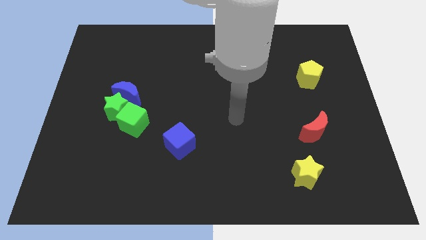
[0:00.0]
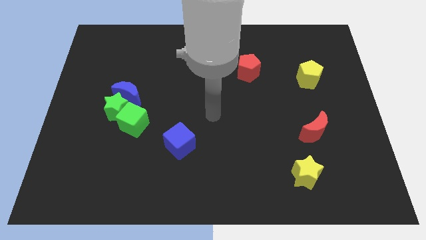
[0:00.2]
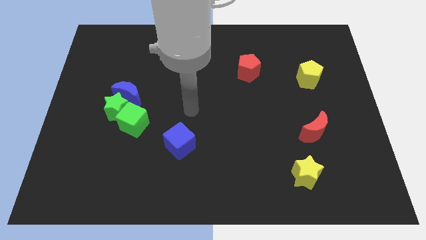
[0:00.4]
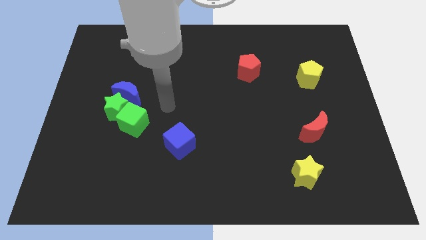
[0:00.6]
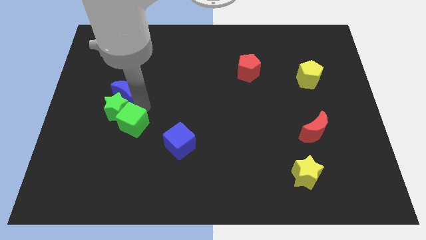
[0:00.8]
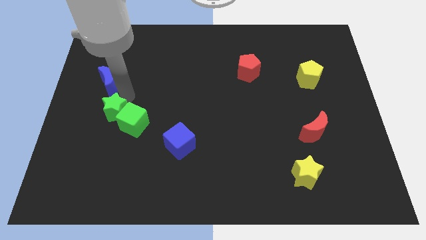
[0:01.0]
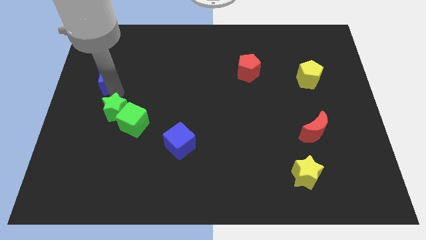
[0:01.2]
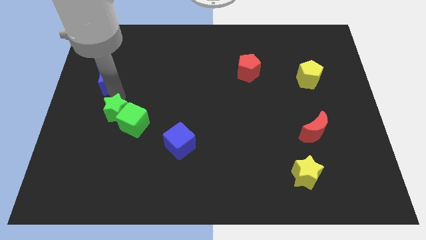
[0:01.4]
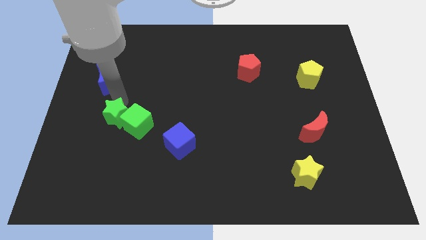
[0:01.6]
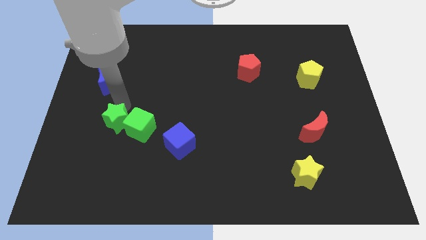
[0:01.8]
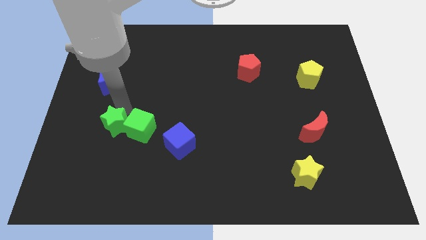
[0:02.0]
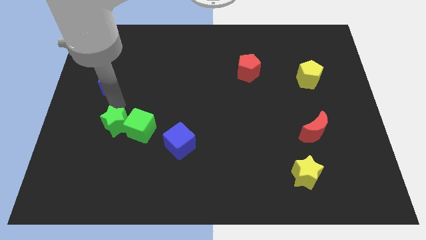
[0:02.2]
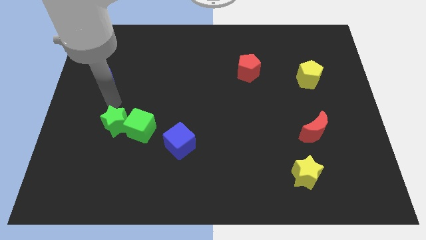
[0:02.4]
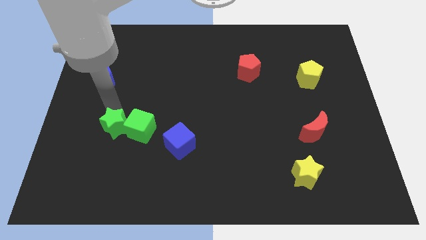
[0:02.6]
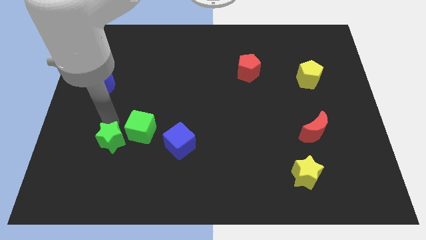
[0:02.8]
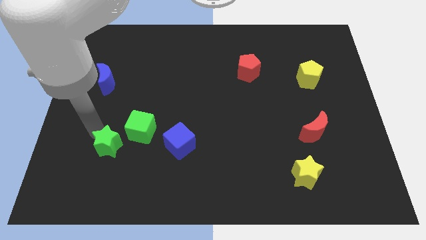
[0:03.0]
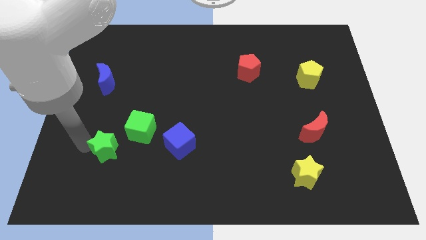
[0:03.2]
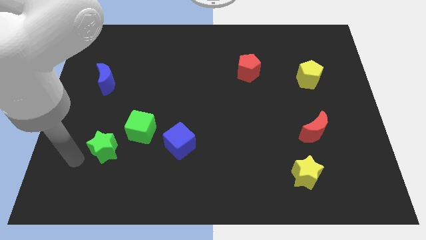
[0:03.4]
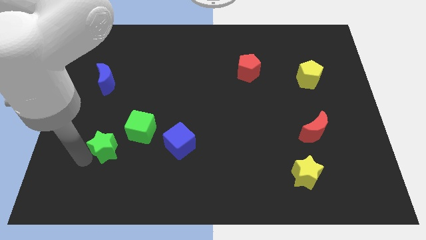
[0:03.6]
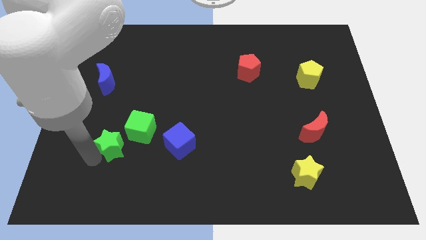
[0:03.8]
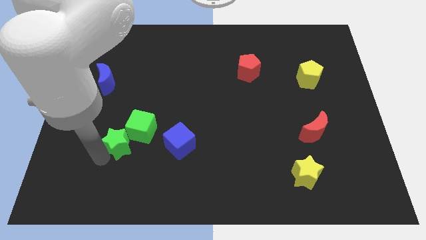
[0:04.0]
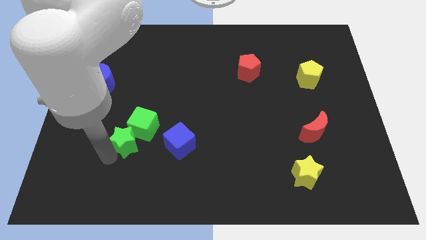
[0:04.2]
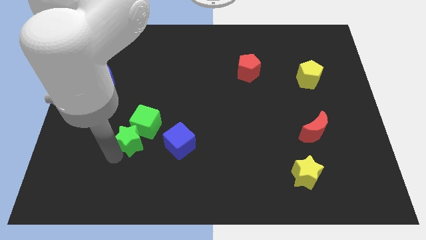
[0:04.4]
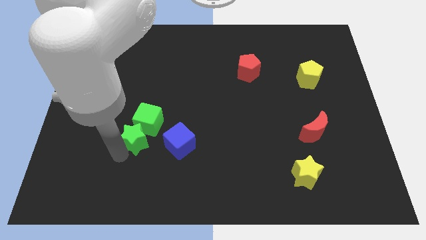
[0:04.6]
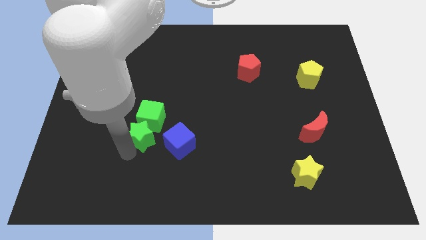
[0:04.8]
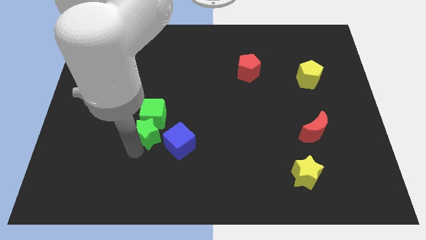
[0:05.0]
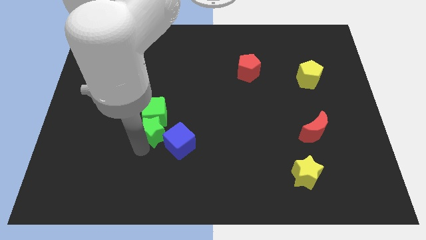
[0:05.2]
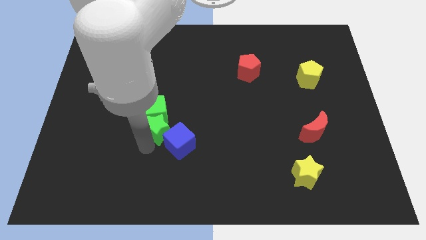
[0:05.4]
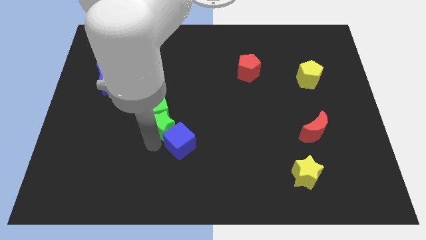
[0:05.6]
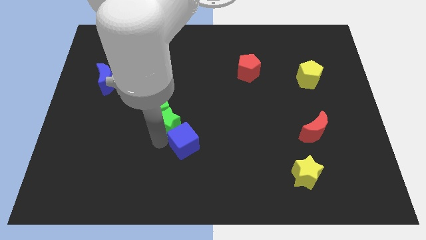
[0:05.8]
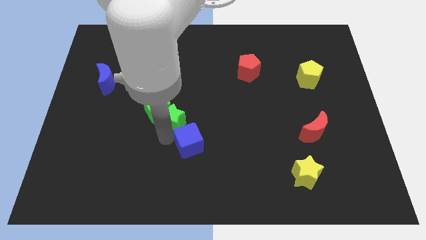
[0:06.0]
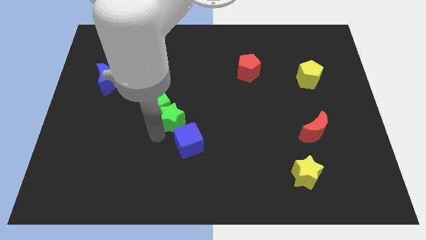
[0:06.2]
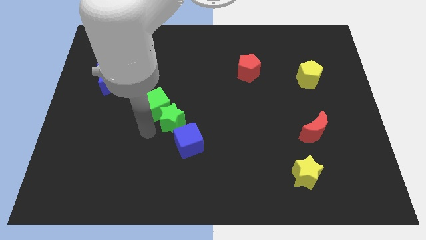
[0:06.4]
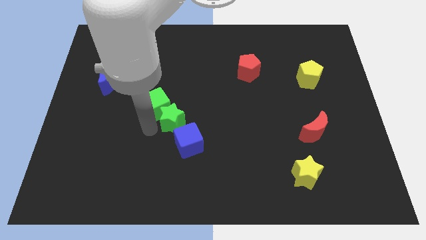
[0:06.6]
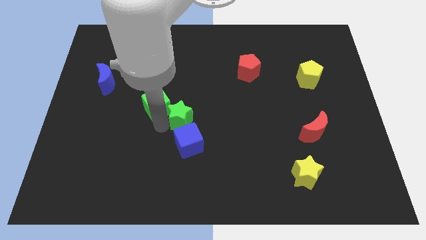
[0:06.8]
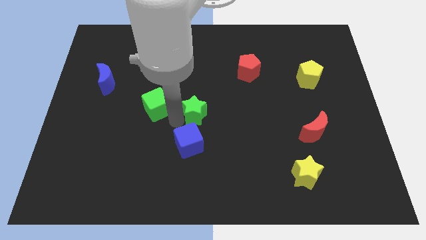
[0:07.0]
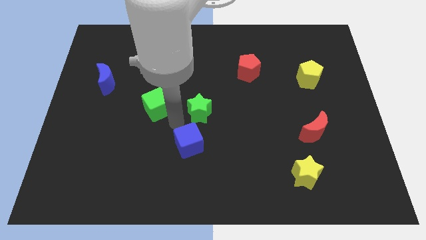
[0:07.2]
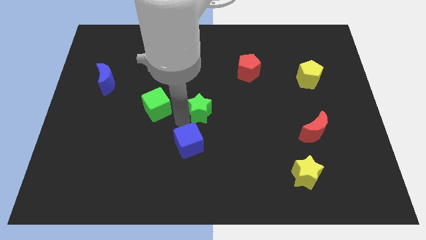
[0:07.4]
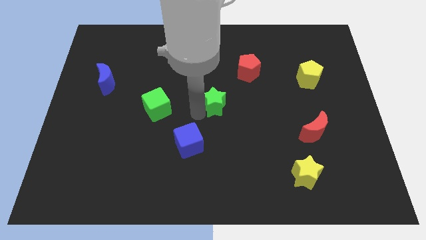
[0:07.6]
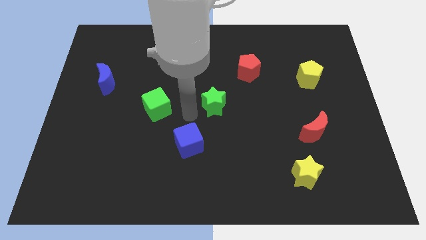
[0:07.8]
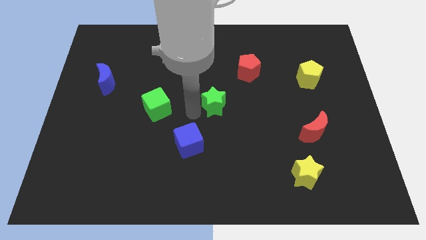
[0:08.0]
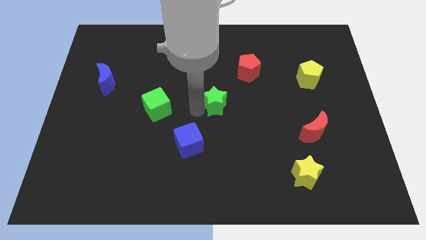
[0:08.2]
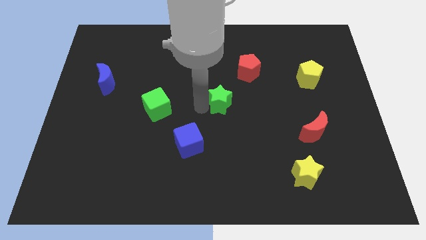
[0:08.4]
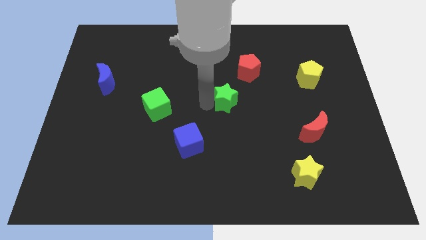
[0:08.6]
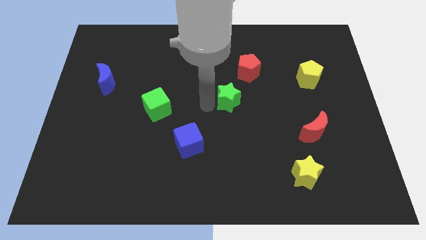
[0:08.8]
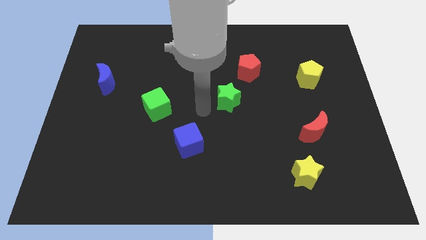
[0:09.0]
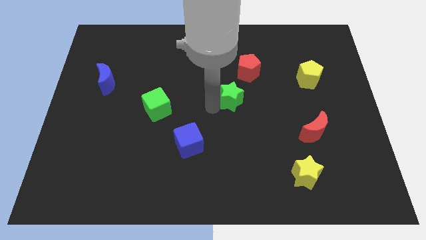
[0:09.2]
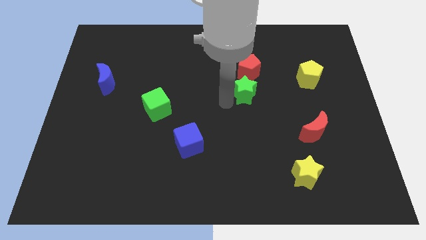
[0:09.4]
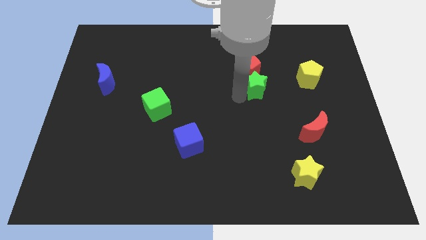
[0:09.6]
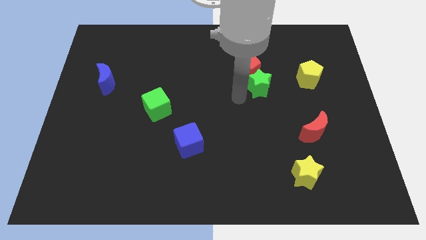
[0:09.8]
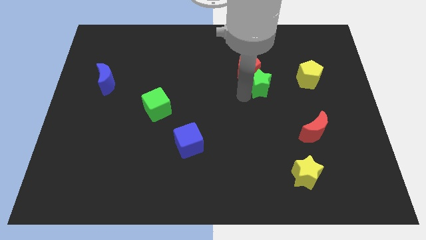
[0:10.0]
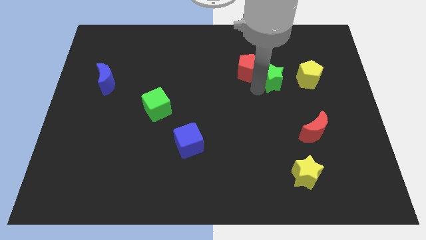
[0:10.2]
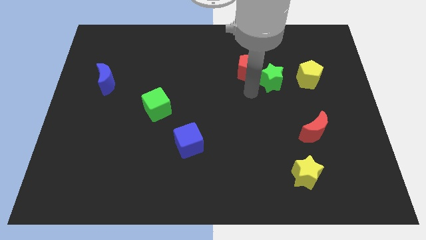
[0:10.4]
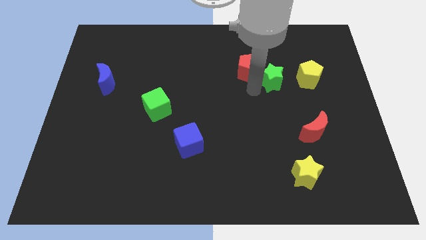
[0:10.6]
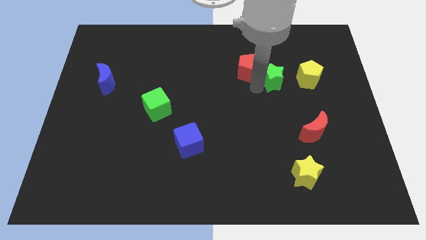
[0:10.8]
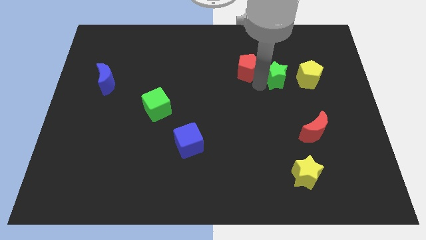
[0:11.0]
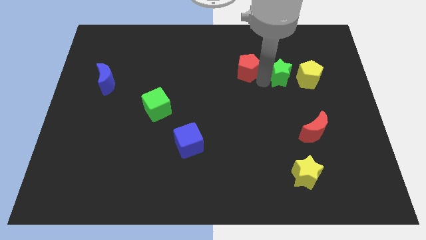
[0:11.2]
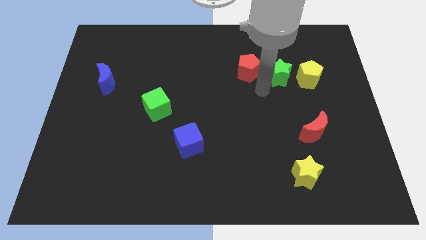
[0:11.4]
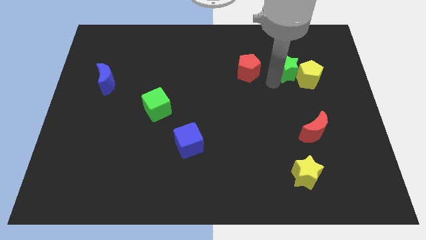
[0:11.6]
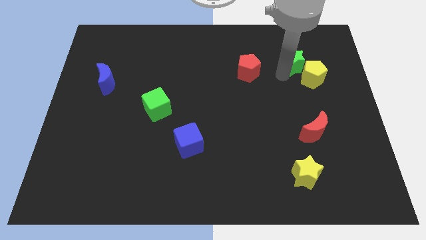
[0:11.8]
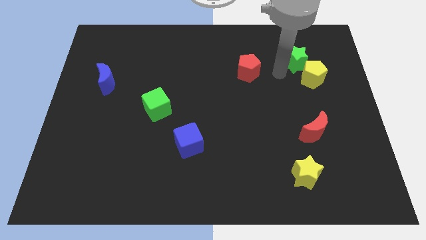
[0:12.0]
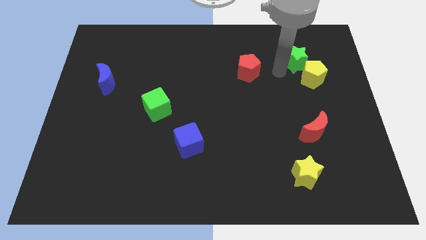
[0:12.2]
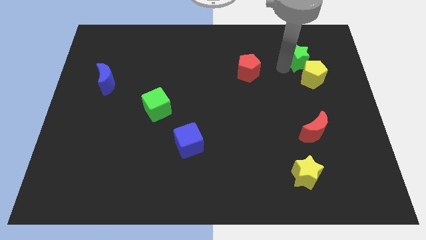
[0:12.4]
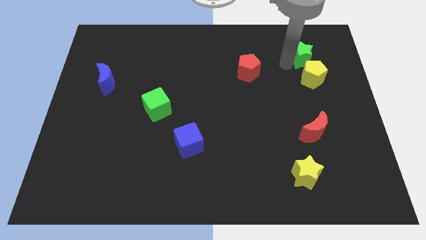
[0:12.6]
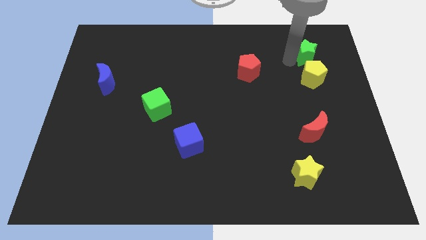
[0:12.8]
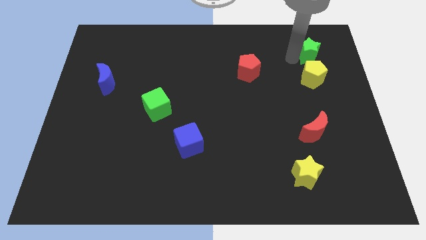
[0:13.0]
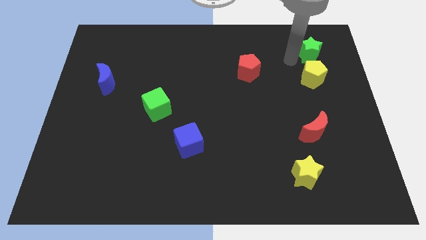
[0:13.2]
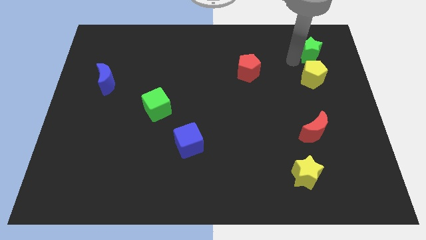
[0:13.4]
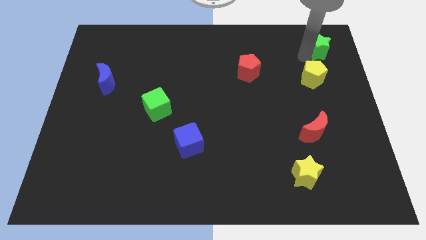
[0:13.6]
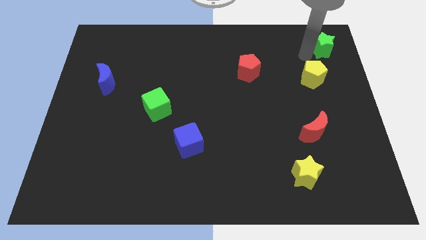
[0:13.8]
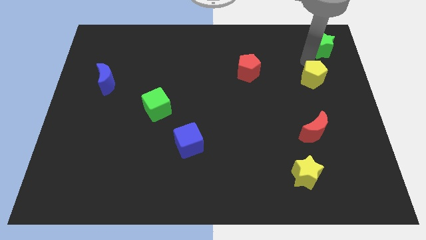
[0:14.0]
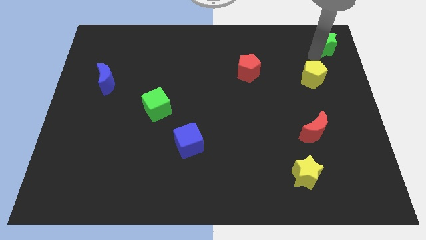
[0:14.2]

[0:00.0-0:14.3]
put the green star to the top right of the board
